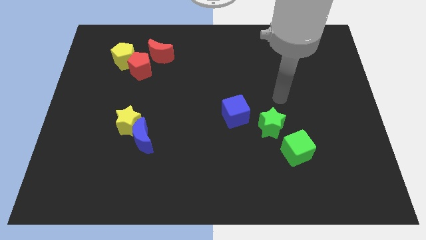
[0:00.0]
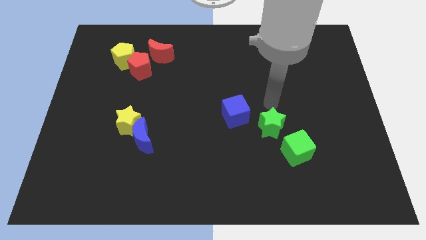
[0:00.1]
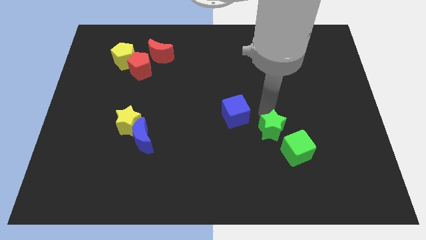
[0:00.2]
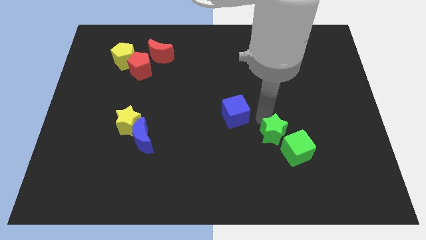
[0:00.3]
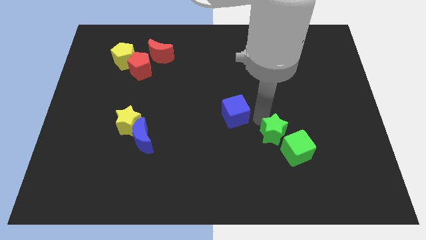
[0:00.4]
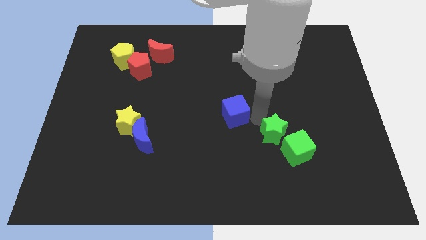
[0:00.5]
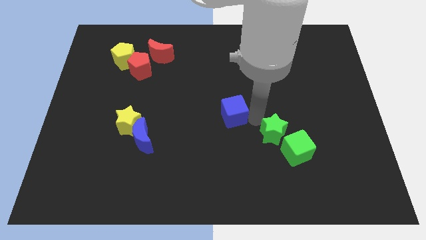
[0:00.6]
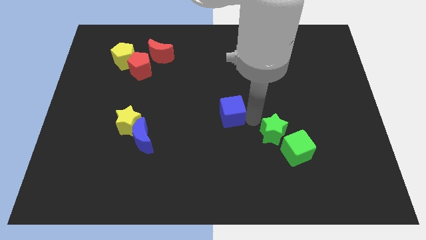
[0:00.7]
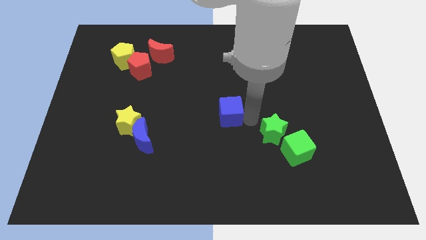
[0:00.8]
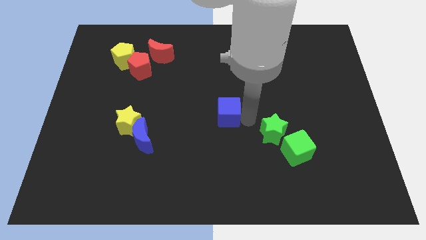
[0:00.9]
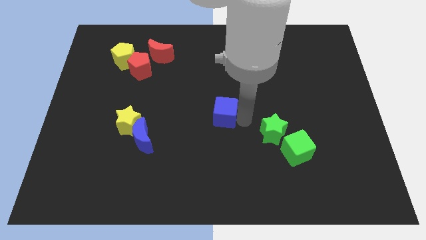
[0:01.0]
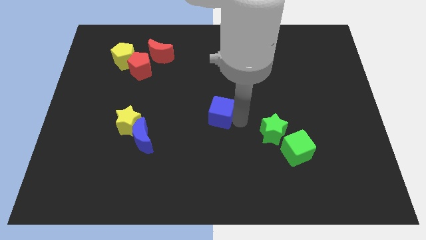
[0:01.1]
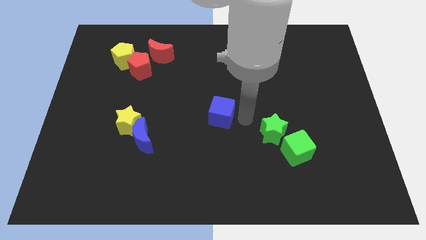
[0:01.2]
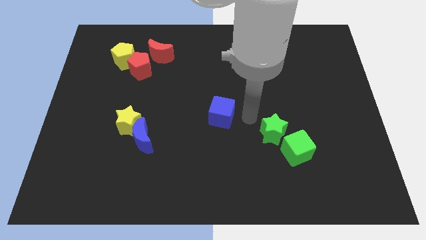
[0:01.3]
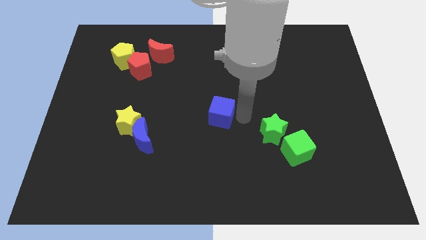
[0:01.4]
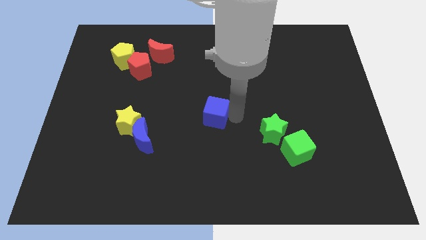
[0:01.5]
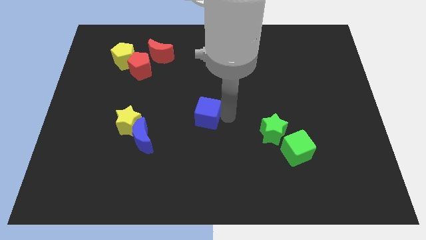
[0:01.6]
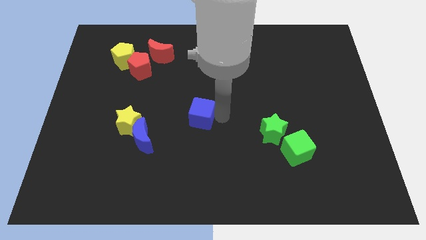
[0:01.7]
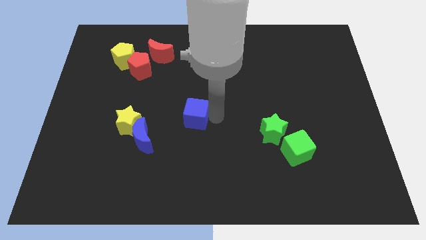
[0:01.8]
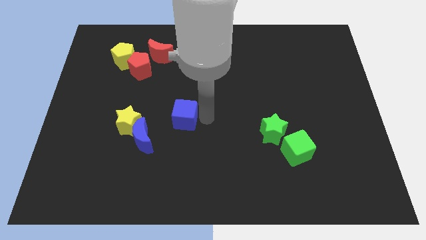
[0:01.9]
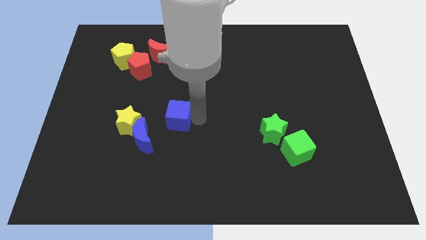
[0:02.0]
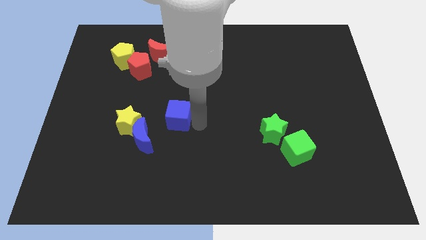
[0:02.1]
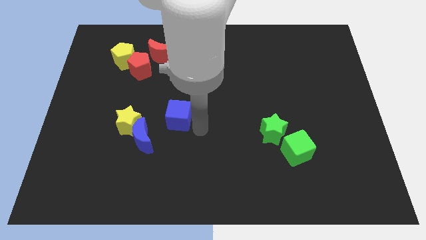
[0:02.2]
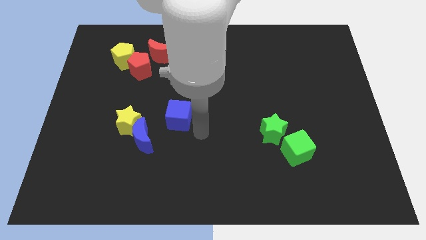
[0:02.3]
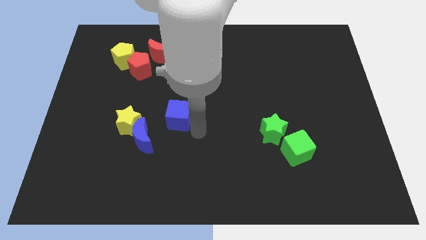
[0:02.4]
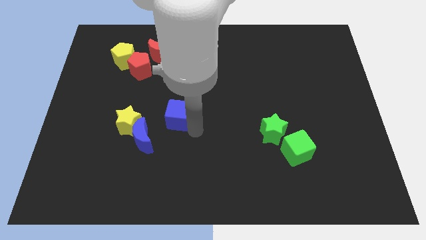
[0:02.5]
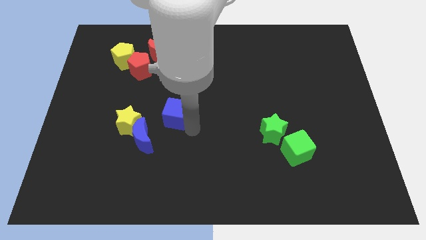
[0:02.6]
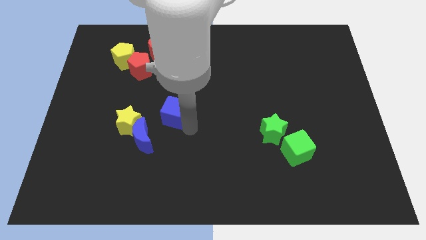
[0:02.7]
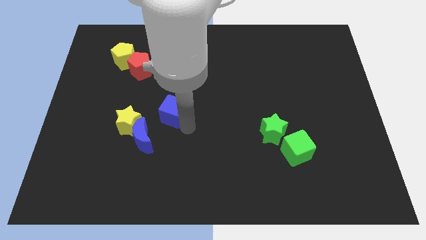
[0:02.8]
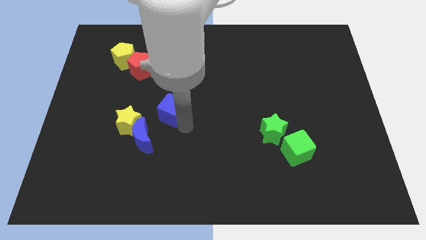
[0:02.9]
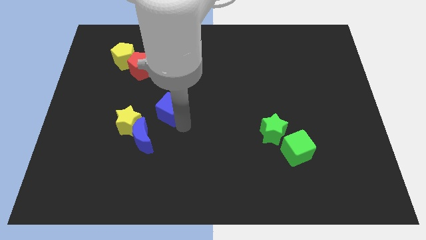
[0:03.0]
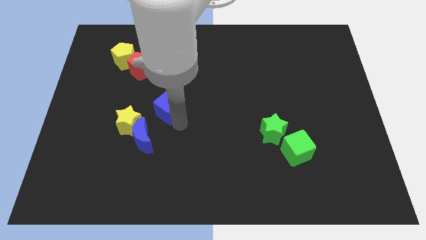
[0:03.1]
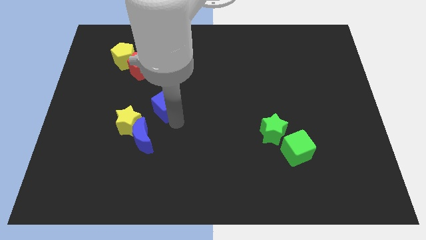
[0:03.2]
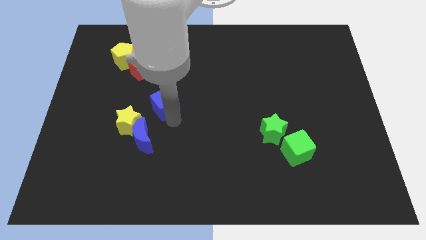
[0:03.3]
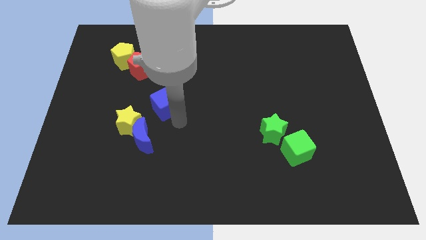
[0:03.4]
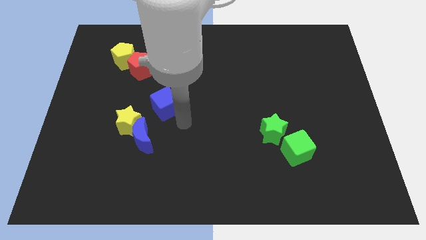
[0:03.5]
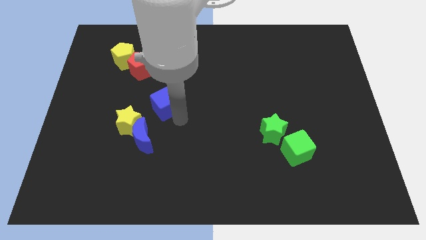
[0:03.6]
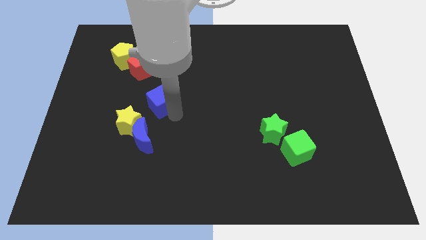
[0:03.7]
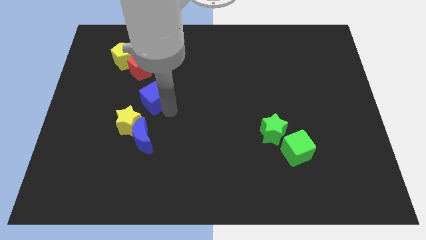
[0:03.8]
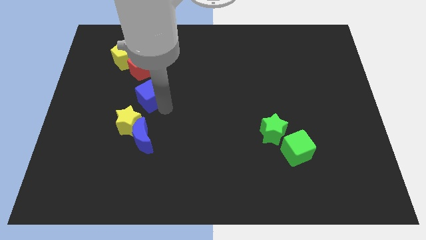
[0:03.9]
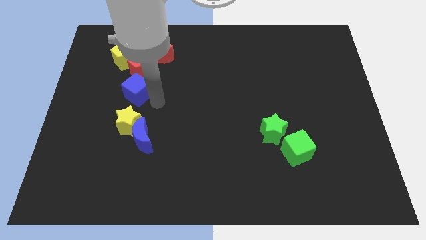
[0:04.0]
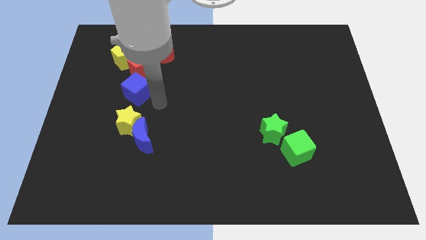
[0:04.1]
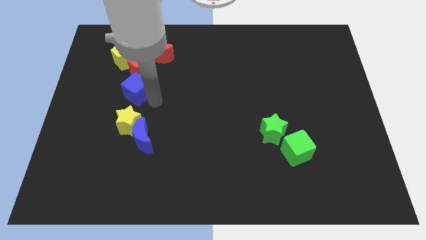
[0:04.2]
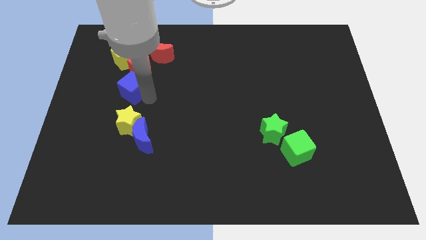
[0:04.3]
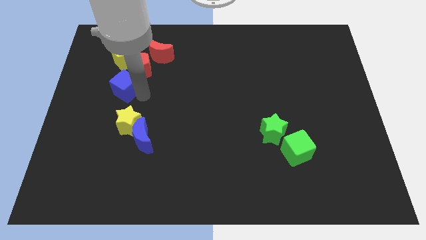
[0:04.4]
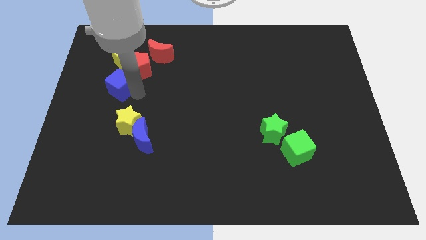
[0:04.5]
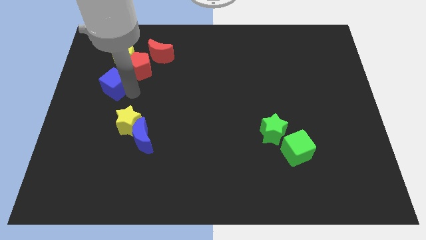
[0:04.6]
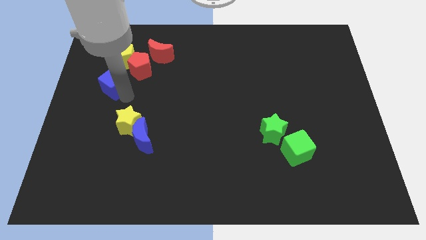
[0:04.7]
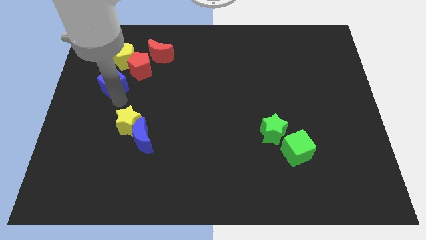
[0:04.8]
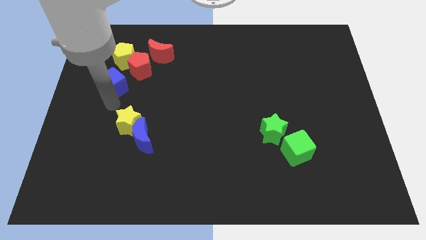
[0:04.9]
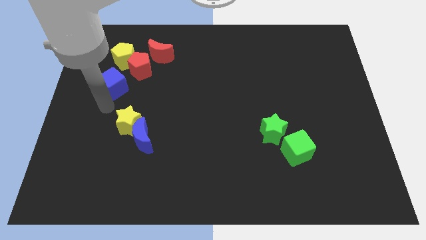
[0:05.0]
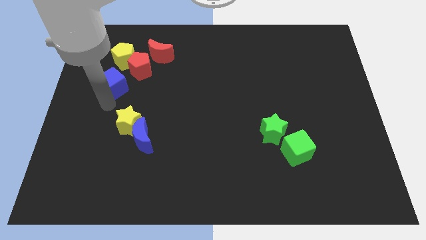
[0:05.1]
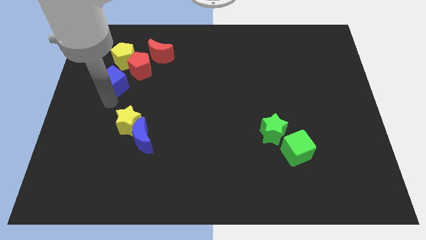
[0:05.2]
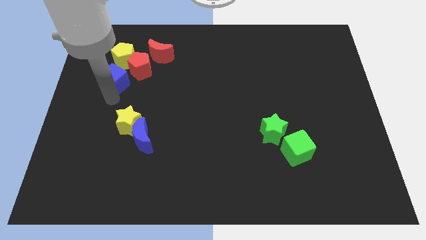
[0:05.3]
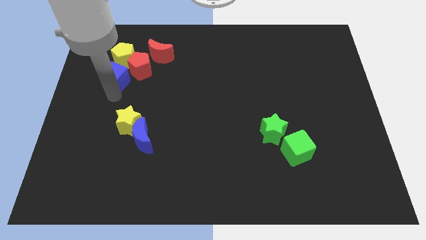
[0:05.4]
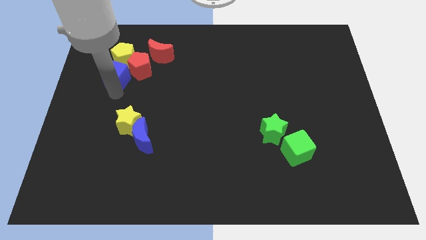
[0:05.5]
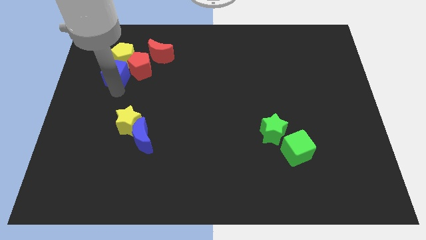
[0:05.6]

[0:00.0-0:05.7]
put the blue cube next to the yellow pentagon
